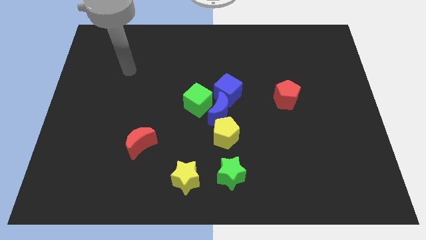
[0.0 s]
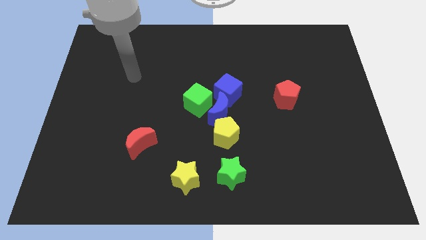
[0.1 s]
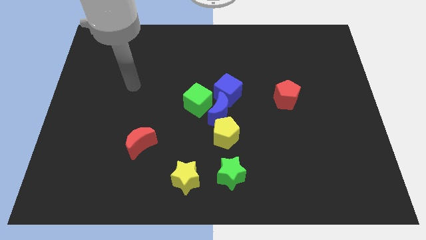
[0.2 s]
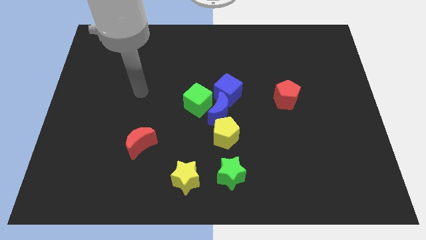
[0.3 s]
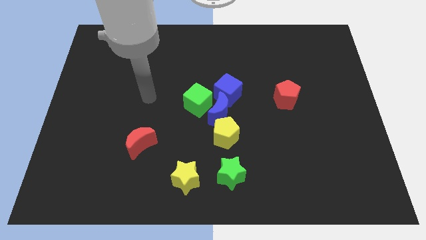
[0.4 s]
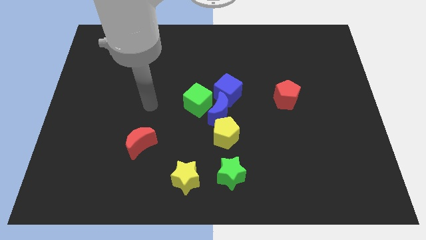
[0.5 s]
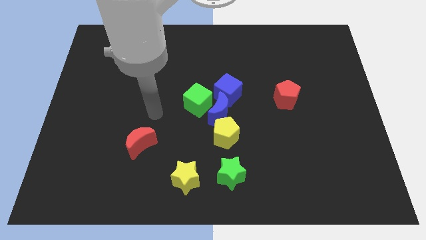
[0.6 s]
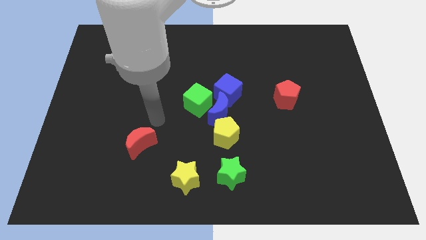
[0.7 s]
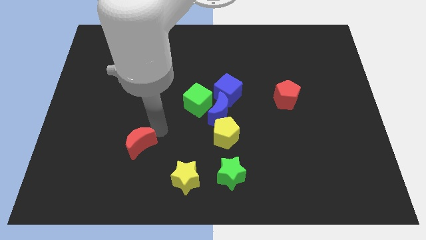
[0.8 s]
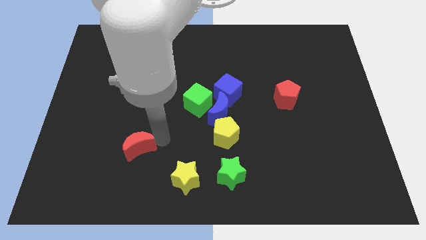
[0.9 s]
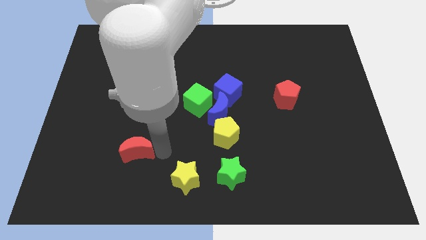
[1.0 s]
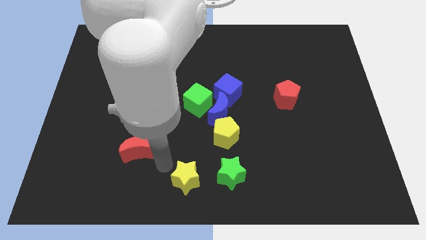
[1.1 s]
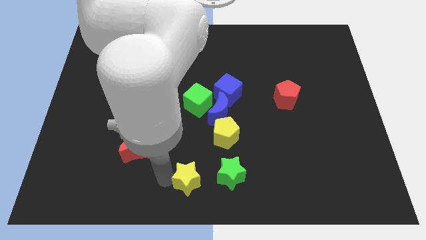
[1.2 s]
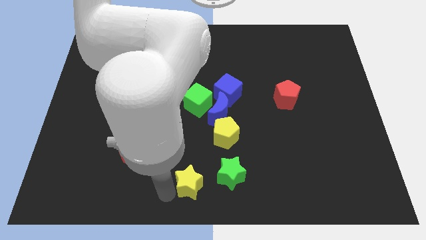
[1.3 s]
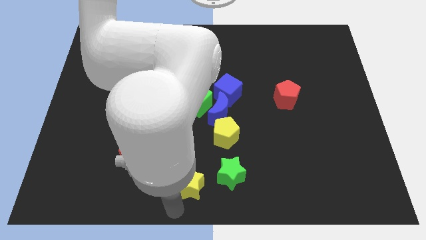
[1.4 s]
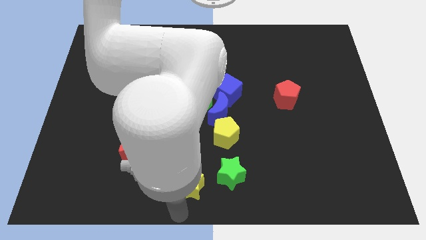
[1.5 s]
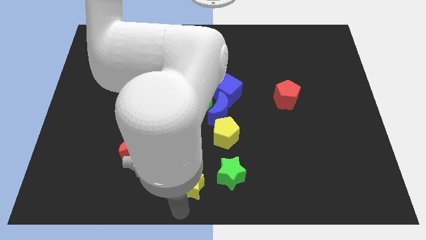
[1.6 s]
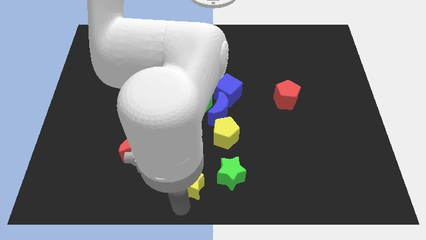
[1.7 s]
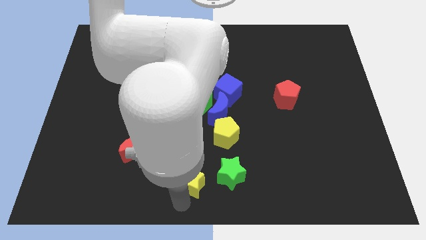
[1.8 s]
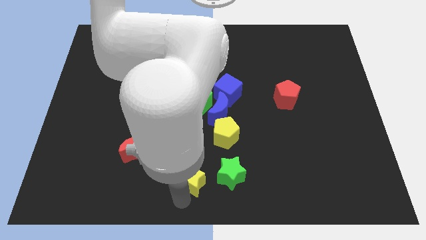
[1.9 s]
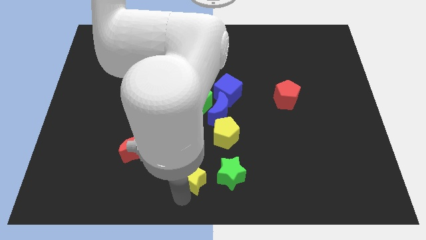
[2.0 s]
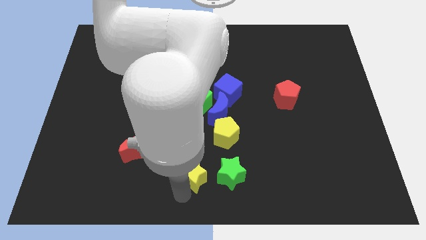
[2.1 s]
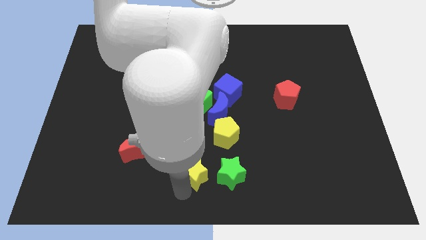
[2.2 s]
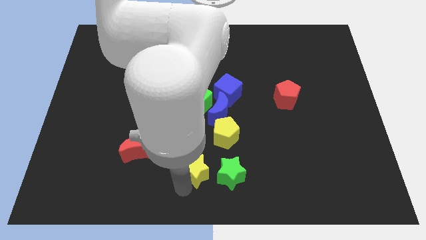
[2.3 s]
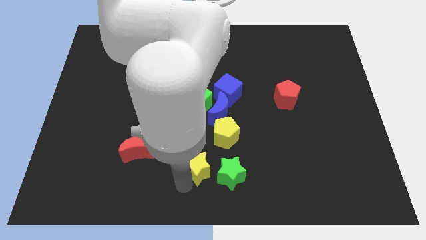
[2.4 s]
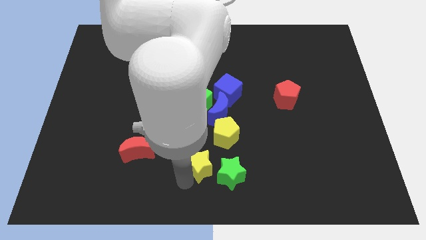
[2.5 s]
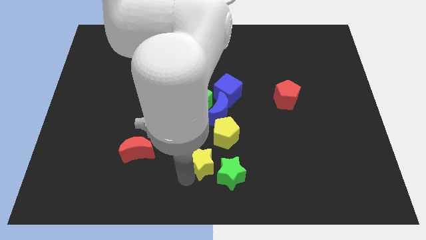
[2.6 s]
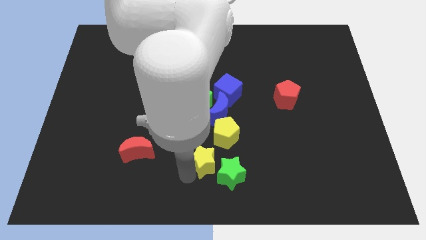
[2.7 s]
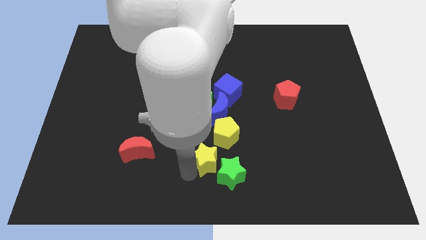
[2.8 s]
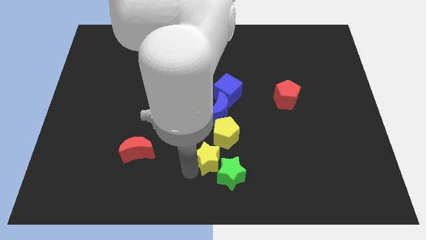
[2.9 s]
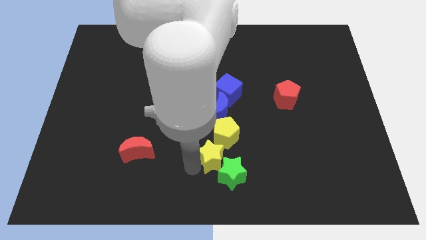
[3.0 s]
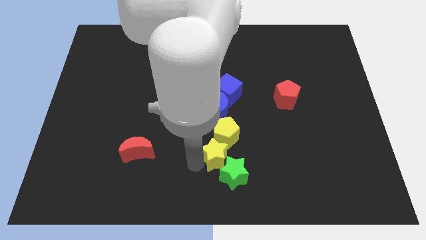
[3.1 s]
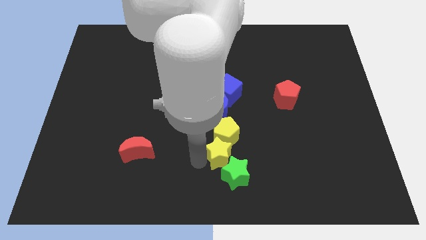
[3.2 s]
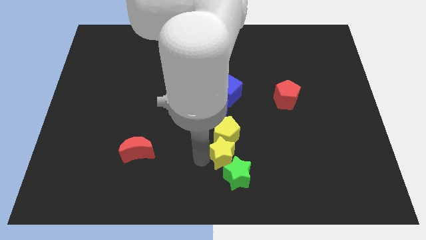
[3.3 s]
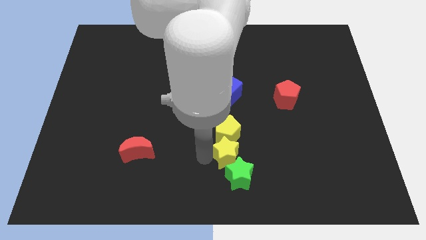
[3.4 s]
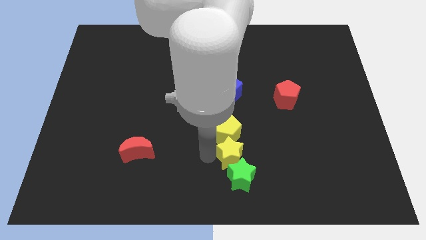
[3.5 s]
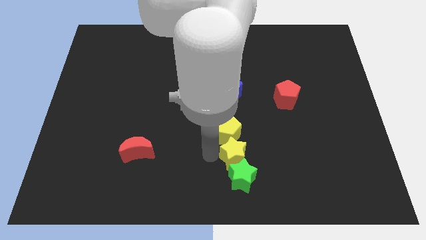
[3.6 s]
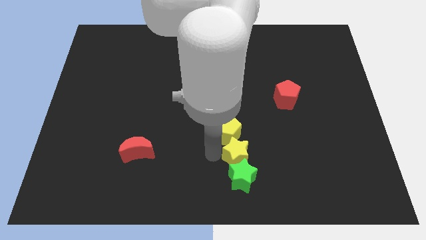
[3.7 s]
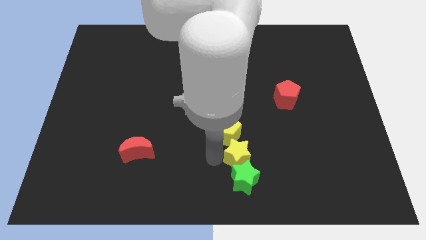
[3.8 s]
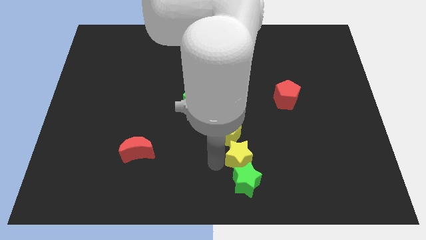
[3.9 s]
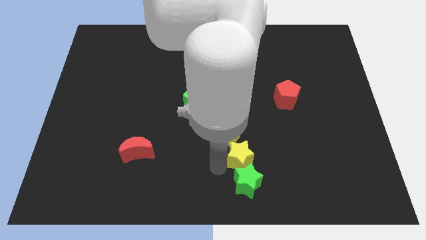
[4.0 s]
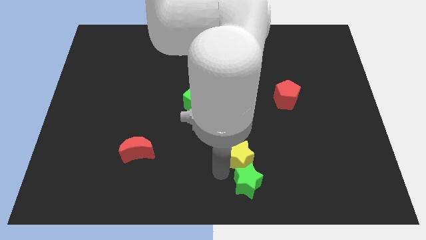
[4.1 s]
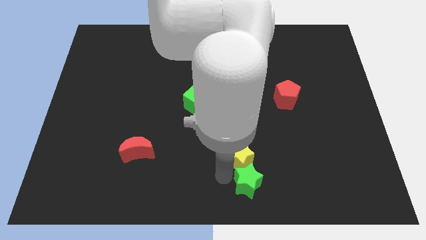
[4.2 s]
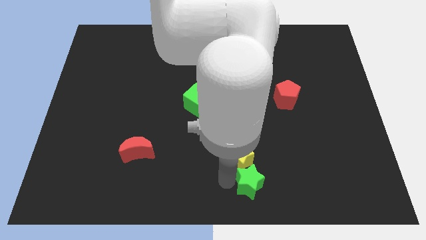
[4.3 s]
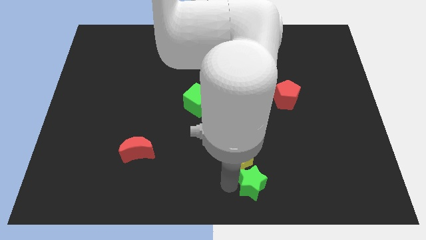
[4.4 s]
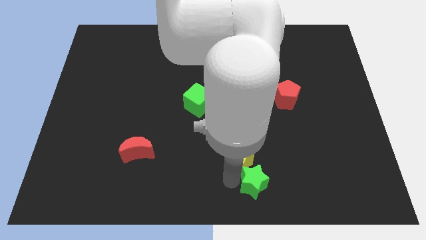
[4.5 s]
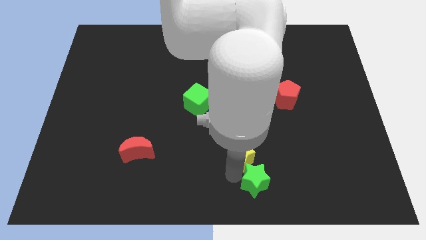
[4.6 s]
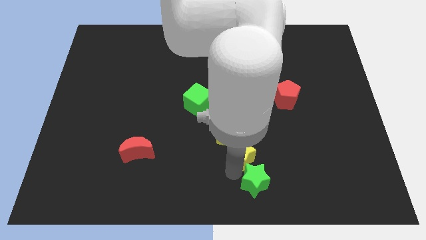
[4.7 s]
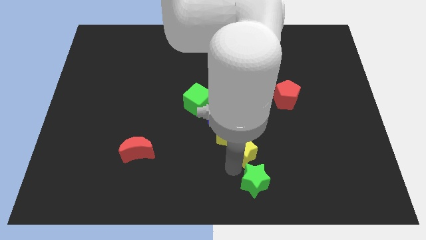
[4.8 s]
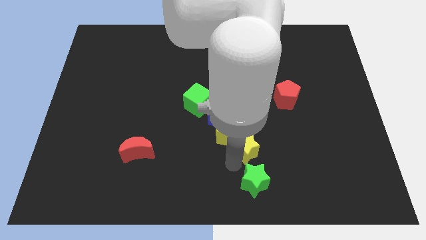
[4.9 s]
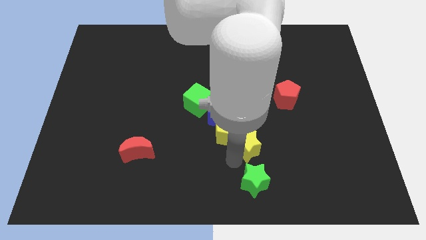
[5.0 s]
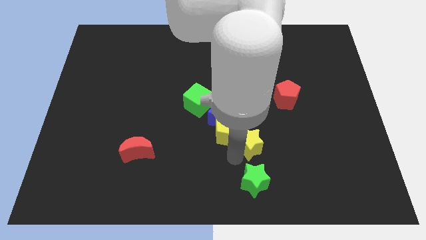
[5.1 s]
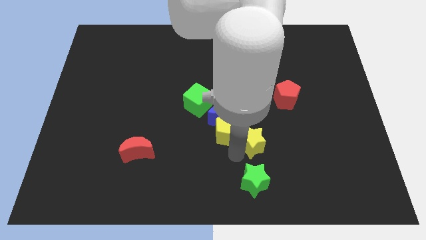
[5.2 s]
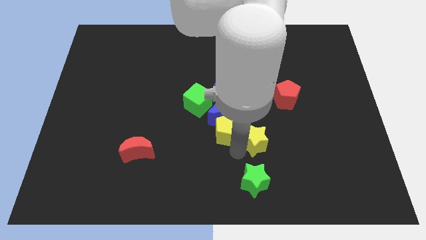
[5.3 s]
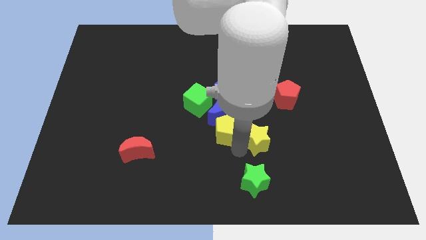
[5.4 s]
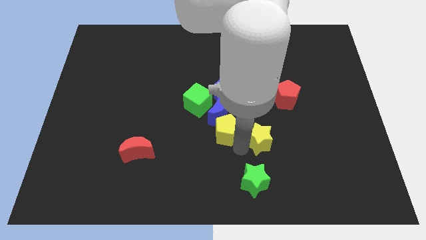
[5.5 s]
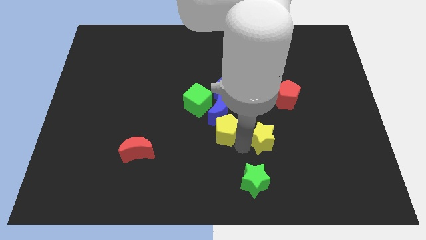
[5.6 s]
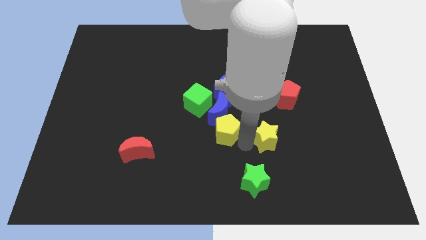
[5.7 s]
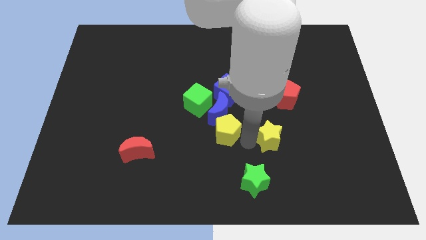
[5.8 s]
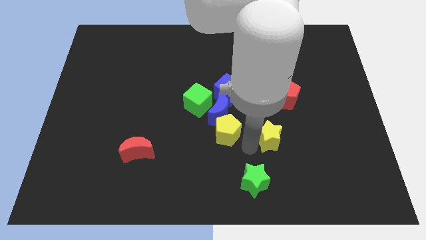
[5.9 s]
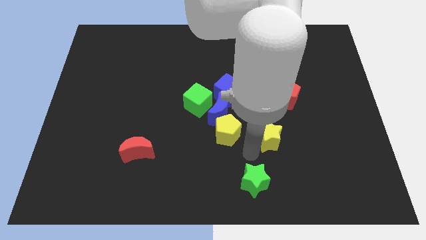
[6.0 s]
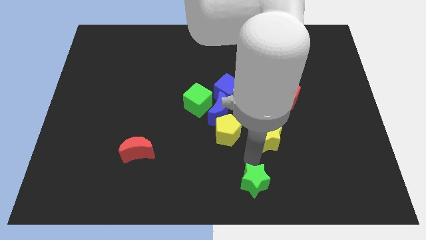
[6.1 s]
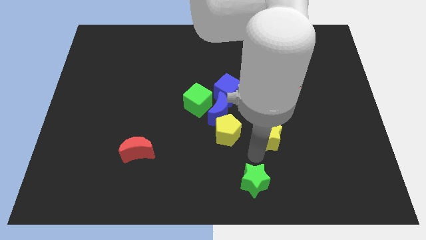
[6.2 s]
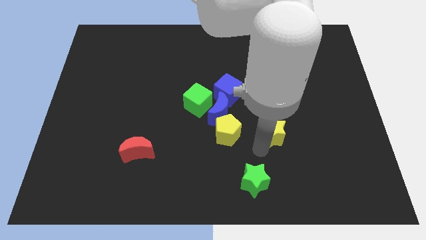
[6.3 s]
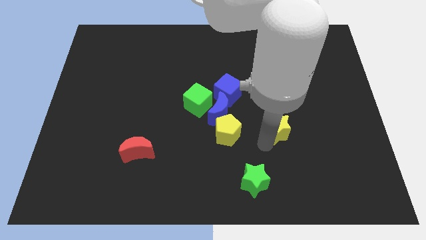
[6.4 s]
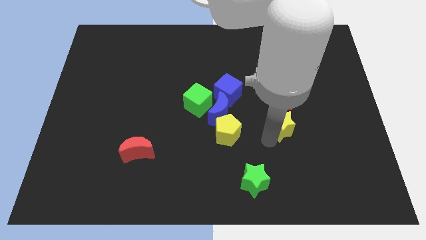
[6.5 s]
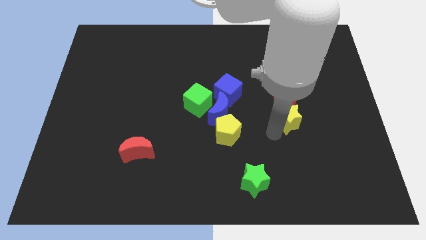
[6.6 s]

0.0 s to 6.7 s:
put the yellow star to the bottom right side of the red pentagon

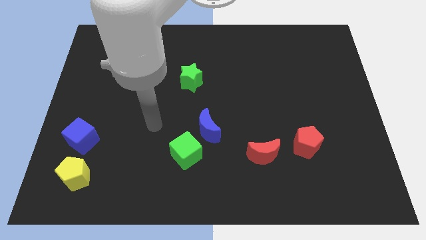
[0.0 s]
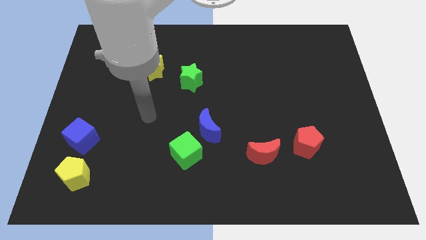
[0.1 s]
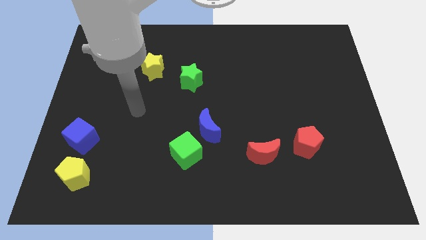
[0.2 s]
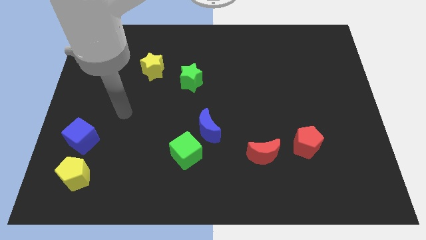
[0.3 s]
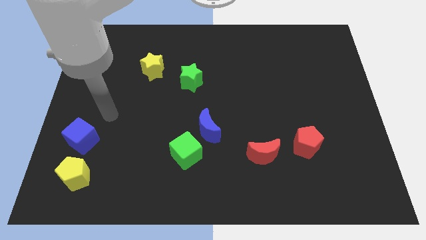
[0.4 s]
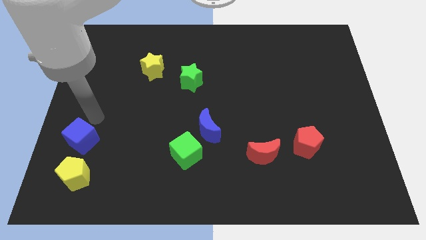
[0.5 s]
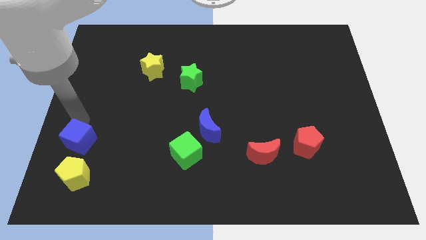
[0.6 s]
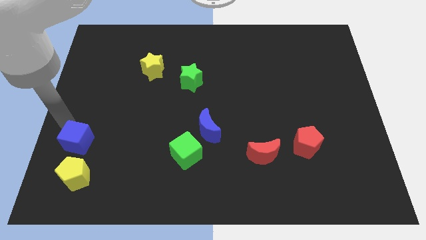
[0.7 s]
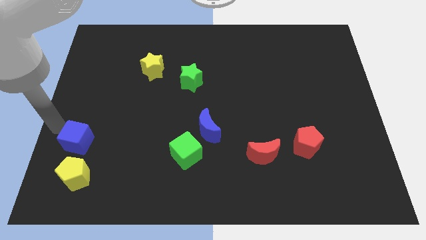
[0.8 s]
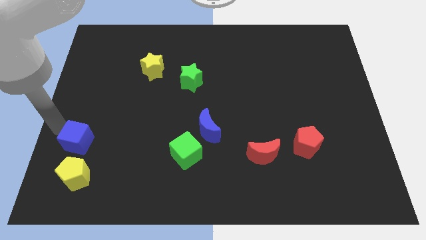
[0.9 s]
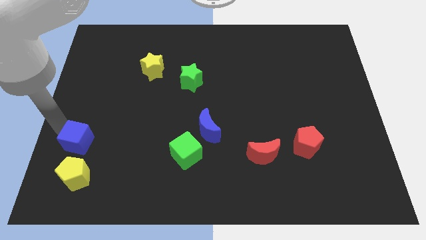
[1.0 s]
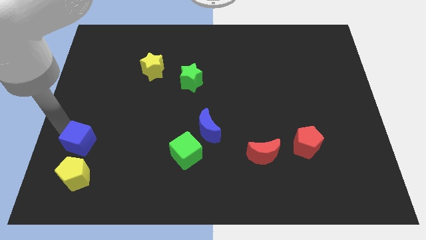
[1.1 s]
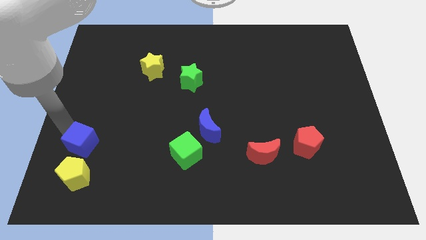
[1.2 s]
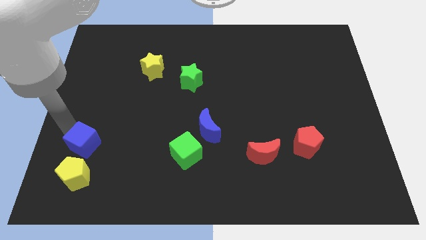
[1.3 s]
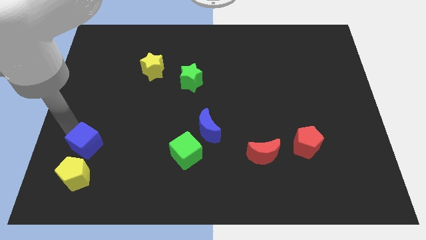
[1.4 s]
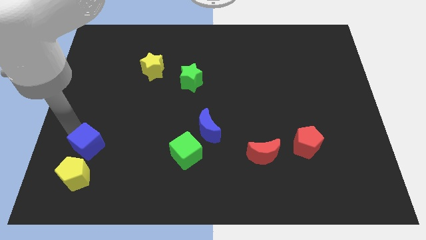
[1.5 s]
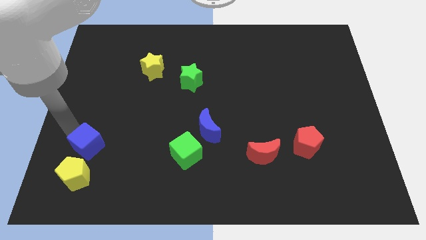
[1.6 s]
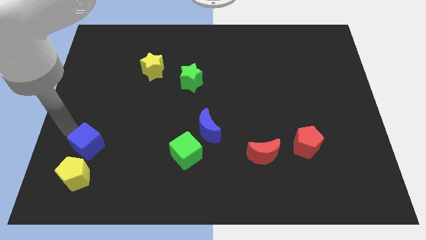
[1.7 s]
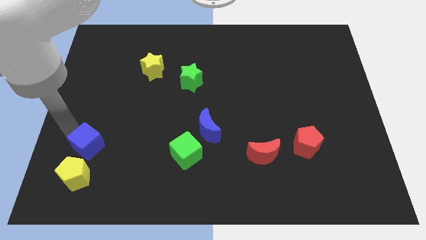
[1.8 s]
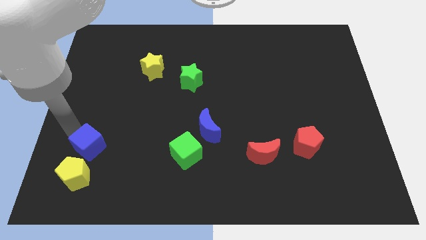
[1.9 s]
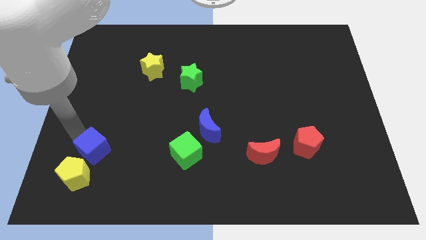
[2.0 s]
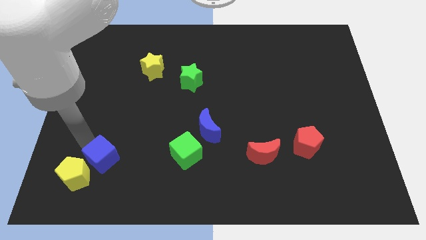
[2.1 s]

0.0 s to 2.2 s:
push the blue cube right of the yellow pentagon
